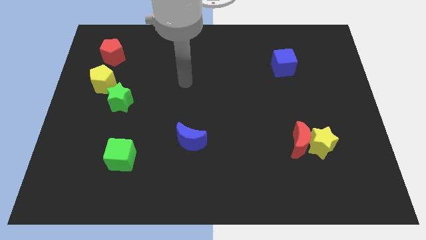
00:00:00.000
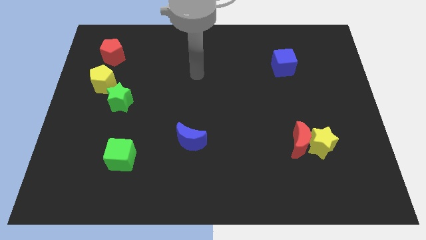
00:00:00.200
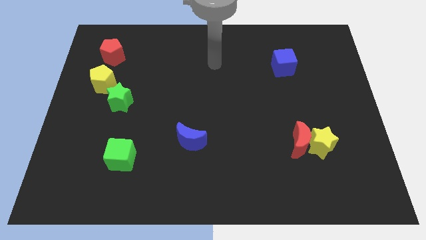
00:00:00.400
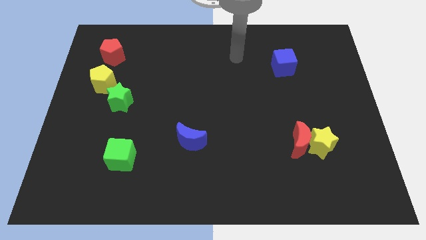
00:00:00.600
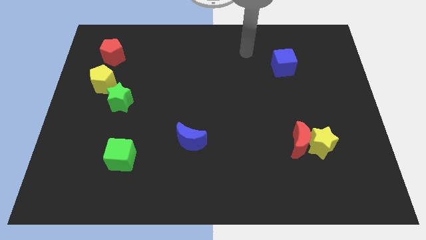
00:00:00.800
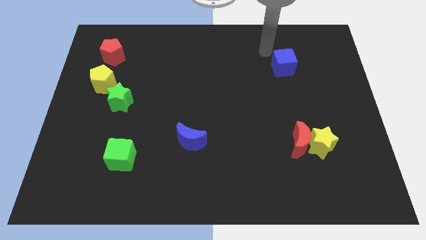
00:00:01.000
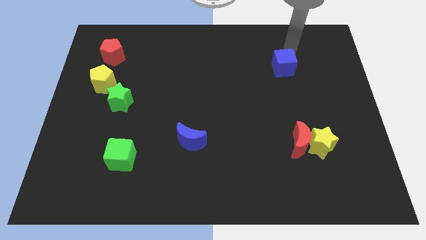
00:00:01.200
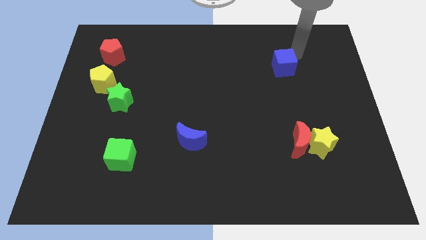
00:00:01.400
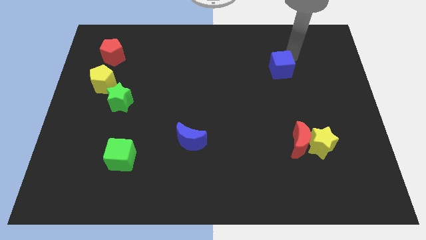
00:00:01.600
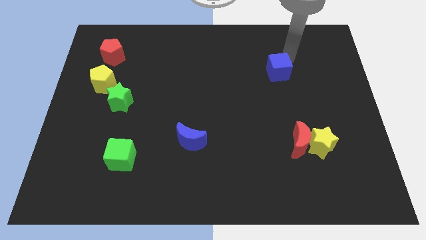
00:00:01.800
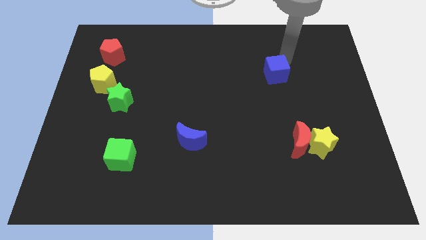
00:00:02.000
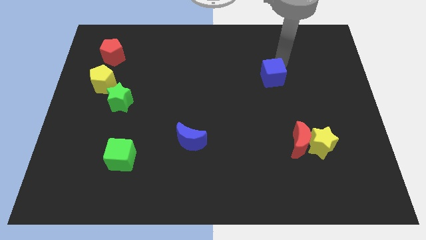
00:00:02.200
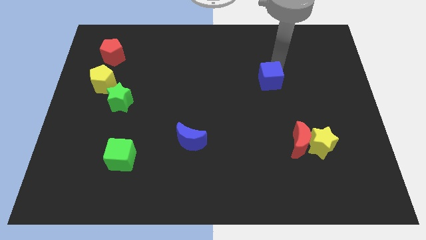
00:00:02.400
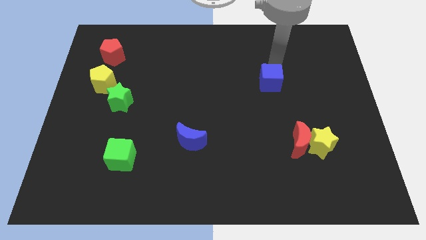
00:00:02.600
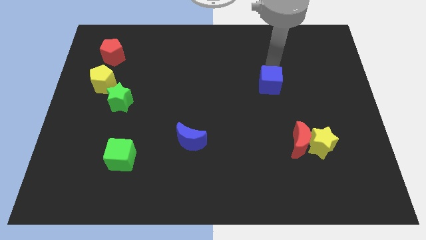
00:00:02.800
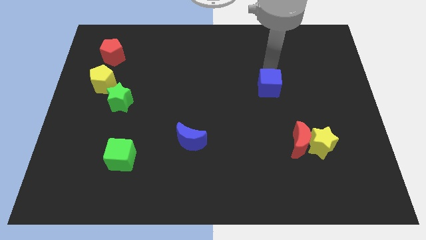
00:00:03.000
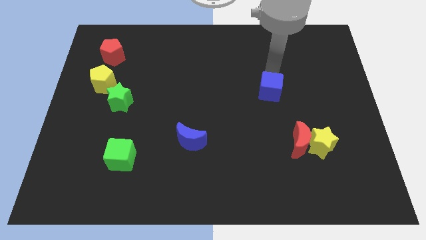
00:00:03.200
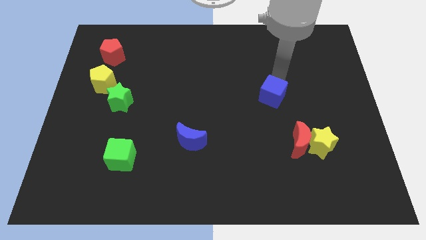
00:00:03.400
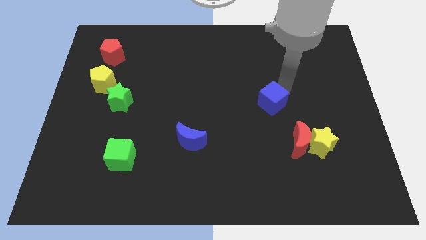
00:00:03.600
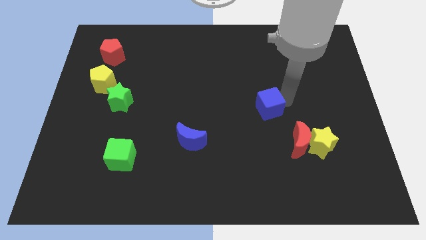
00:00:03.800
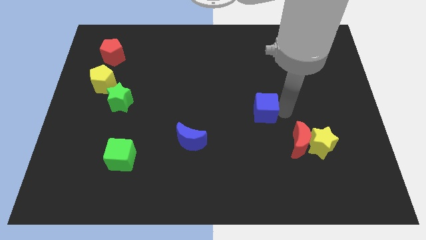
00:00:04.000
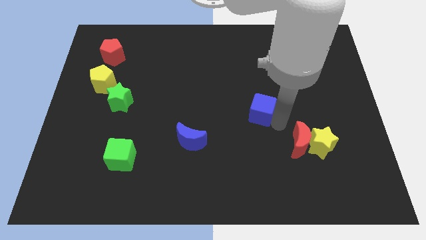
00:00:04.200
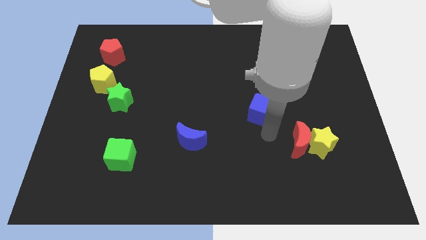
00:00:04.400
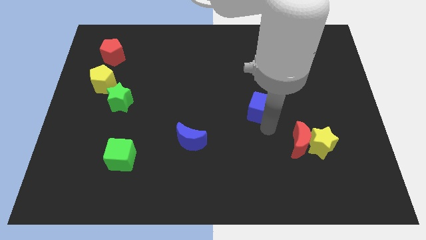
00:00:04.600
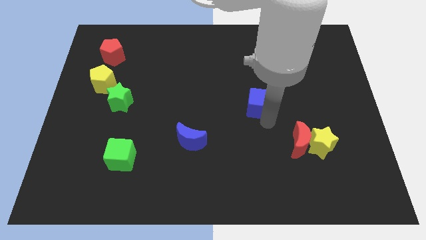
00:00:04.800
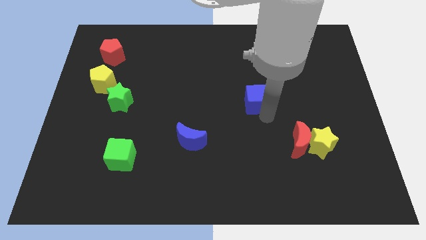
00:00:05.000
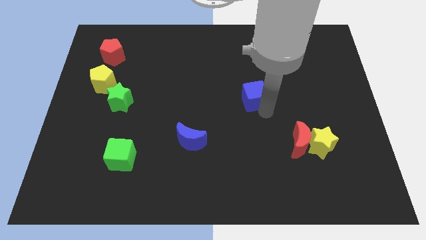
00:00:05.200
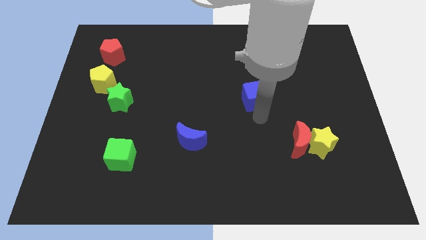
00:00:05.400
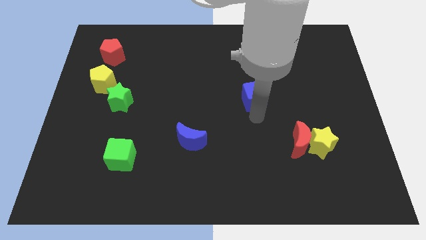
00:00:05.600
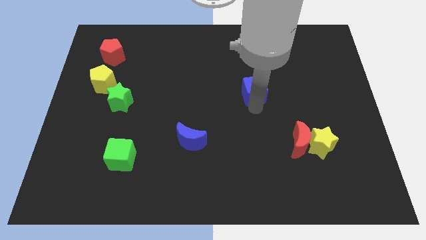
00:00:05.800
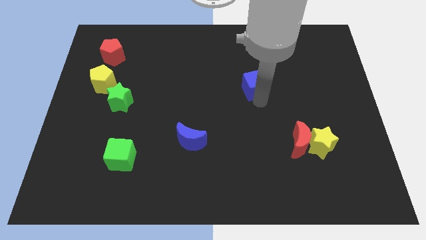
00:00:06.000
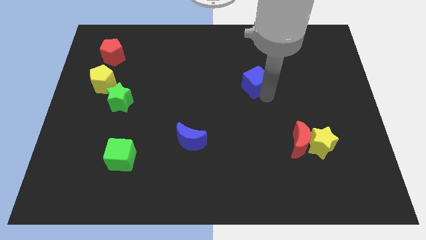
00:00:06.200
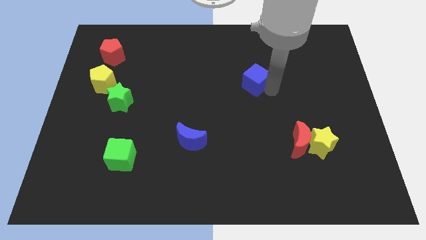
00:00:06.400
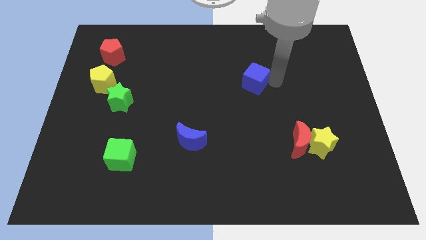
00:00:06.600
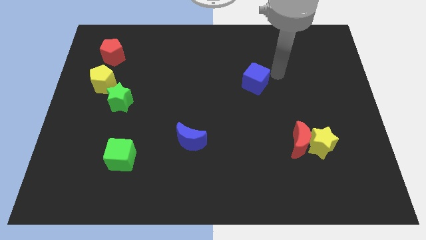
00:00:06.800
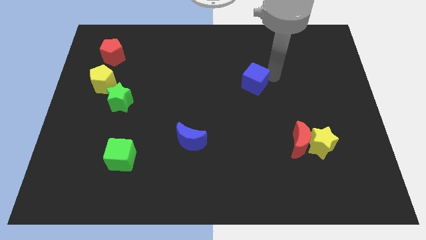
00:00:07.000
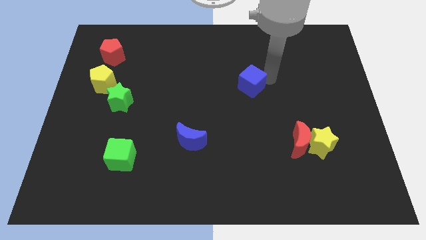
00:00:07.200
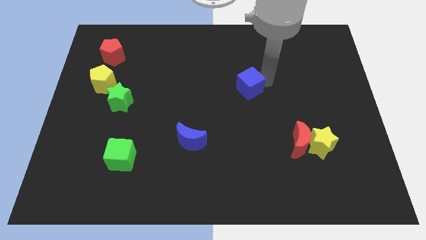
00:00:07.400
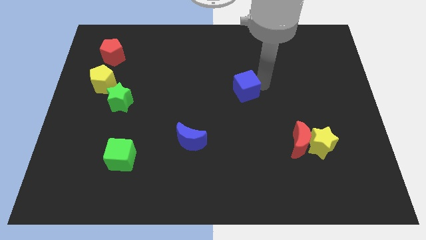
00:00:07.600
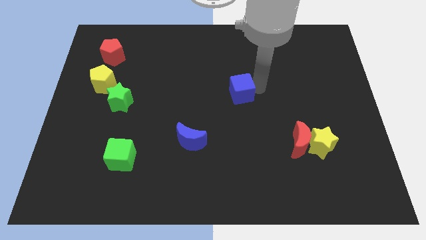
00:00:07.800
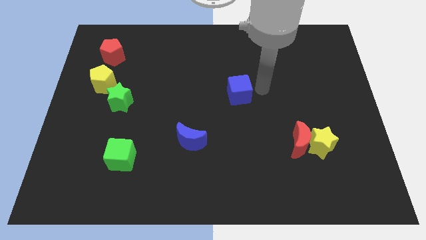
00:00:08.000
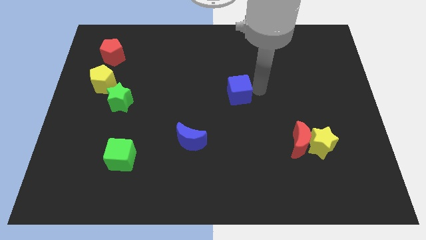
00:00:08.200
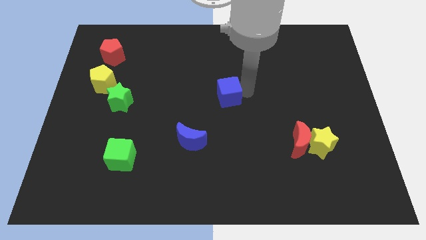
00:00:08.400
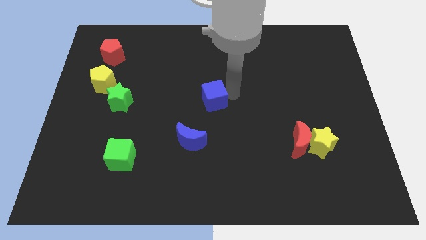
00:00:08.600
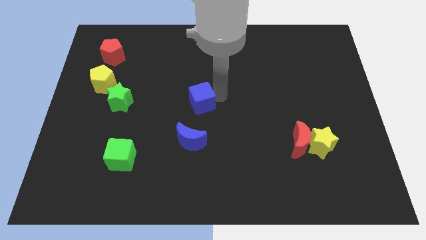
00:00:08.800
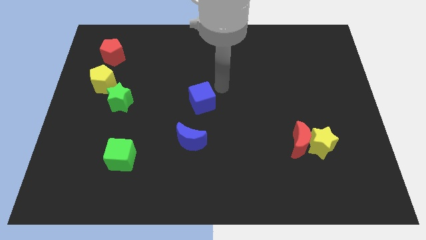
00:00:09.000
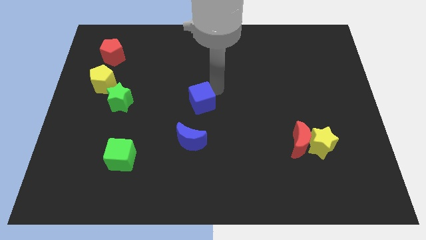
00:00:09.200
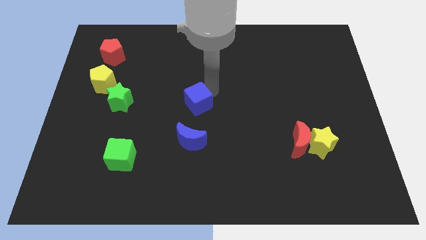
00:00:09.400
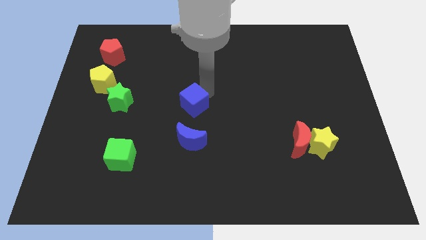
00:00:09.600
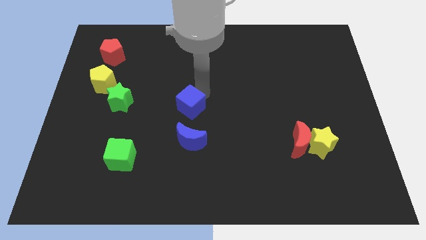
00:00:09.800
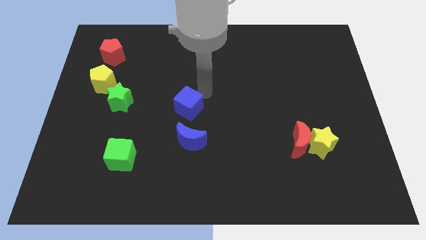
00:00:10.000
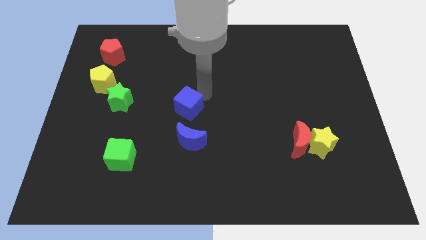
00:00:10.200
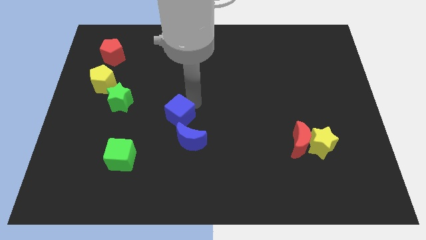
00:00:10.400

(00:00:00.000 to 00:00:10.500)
slide the blue cube diagonally up and to the left of the blue moon

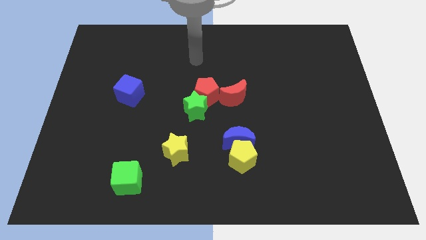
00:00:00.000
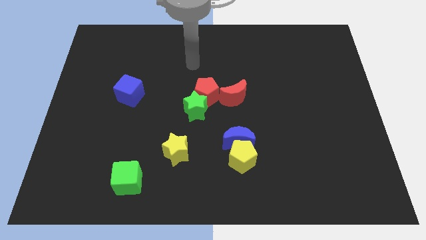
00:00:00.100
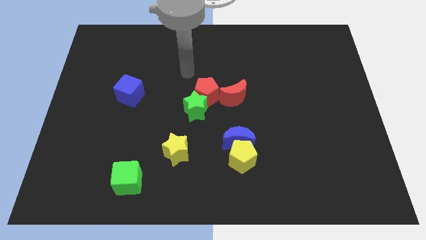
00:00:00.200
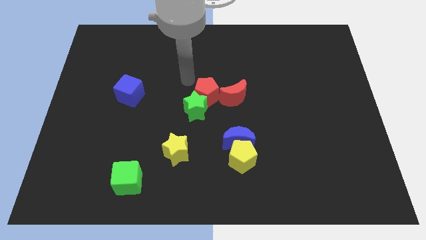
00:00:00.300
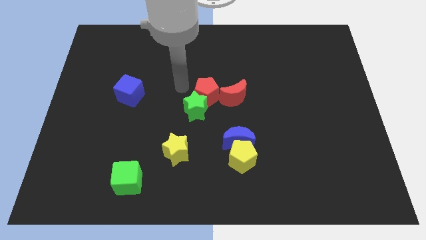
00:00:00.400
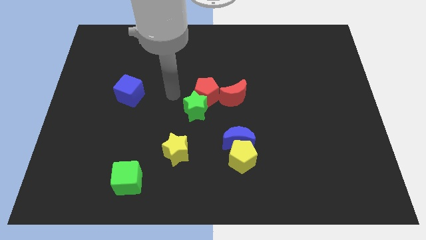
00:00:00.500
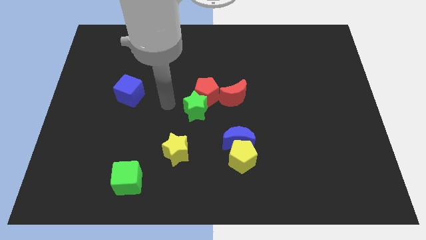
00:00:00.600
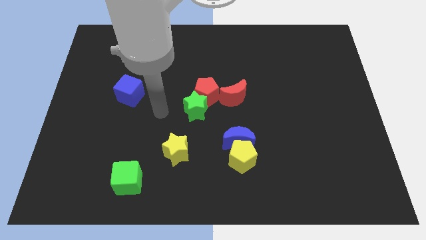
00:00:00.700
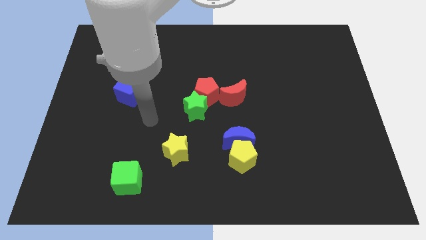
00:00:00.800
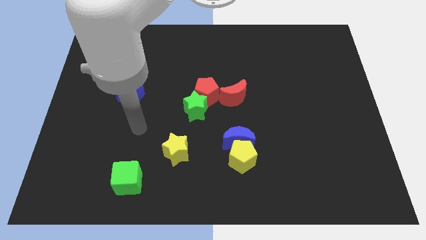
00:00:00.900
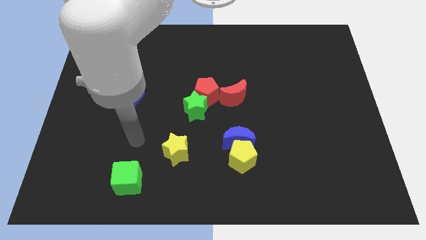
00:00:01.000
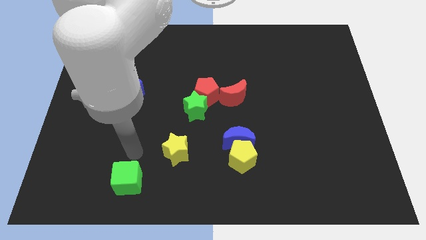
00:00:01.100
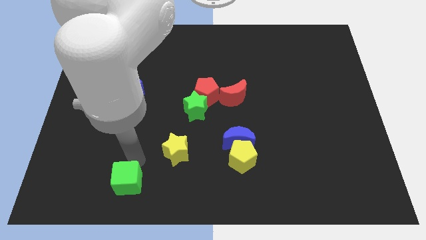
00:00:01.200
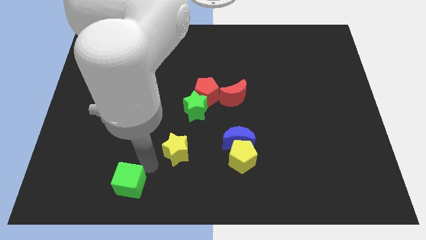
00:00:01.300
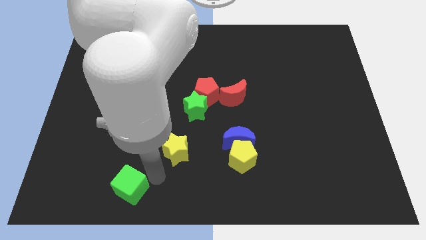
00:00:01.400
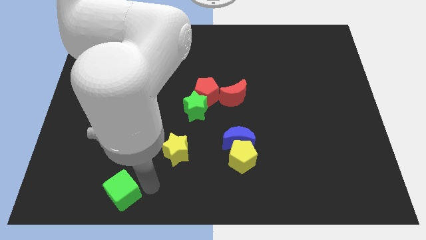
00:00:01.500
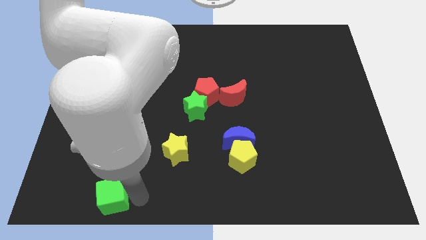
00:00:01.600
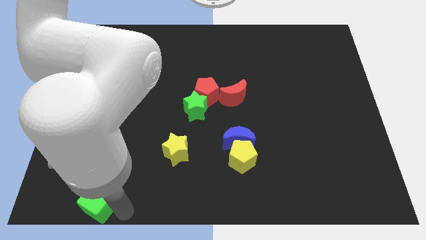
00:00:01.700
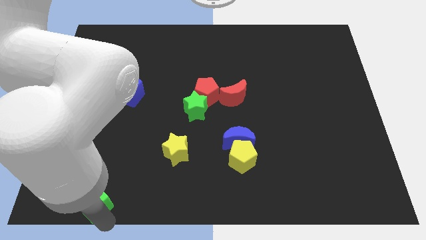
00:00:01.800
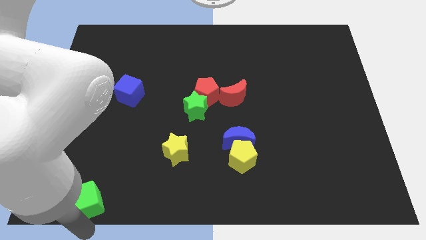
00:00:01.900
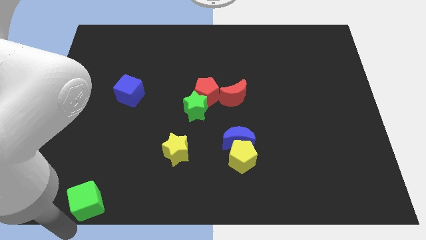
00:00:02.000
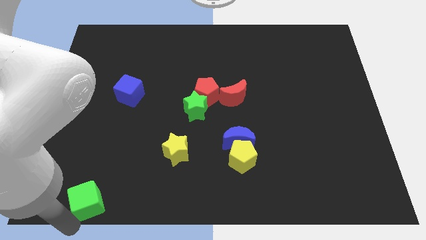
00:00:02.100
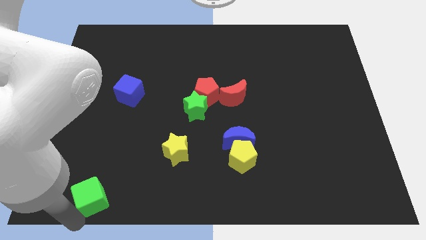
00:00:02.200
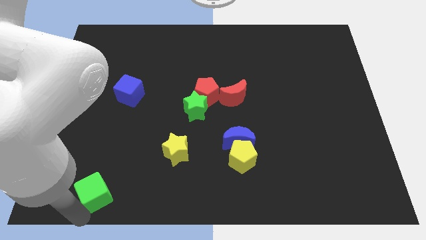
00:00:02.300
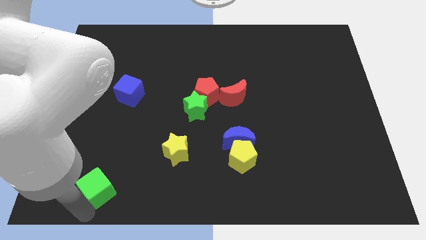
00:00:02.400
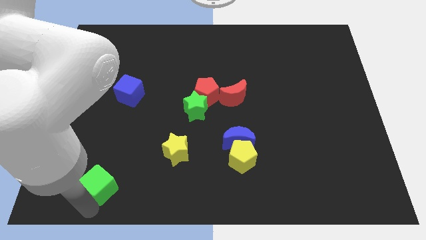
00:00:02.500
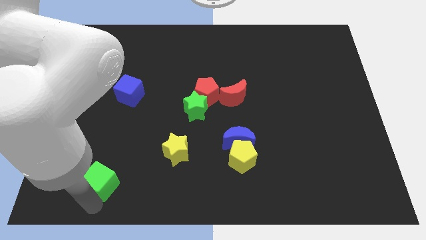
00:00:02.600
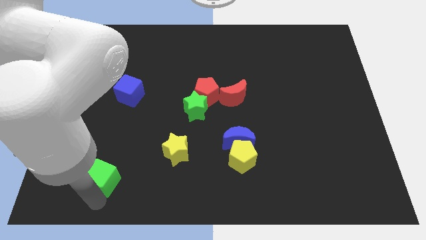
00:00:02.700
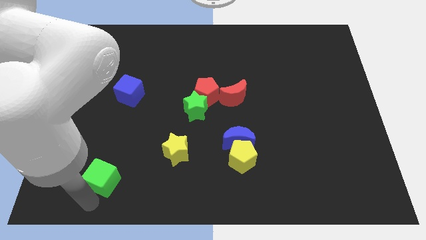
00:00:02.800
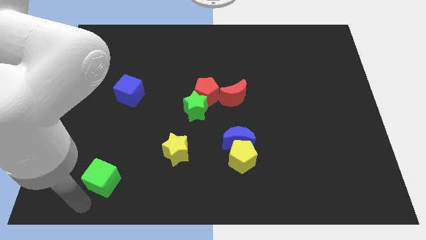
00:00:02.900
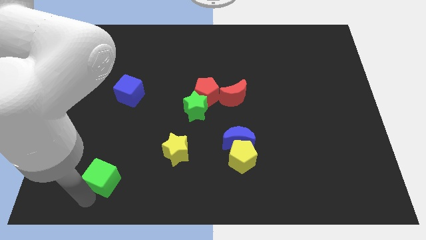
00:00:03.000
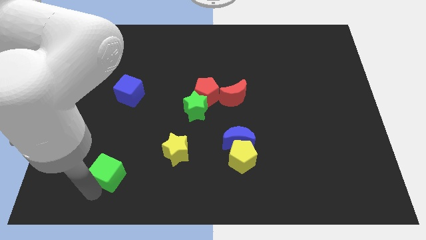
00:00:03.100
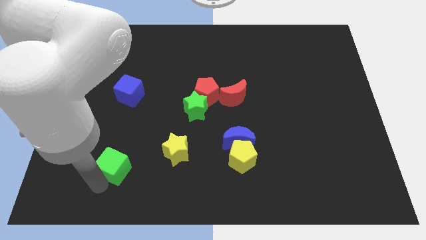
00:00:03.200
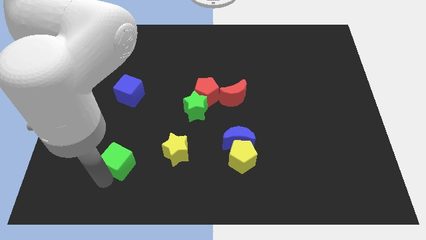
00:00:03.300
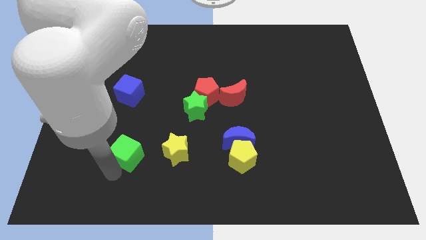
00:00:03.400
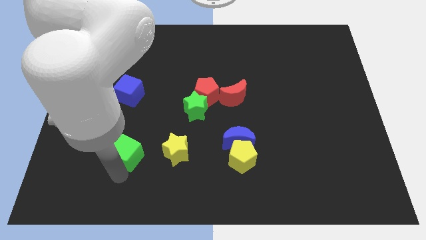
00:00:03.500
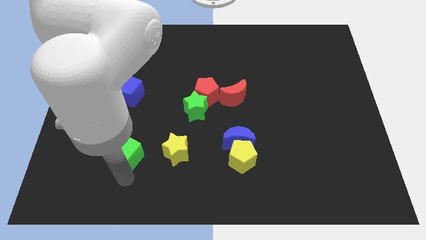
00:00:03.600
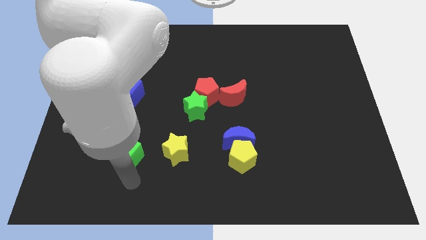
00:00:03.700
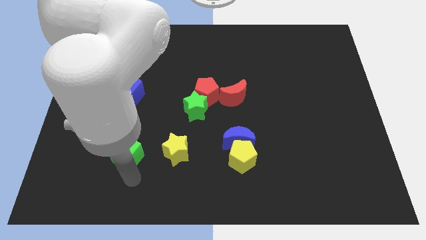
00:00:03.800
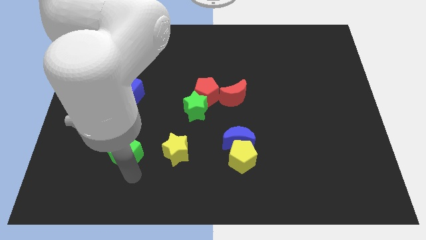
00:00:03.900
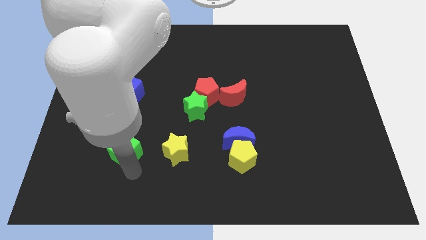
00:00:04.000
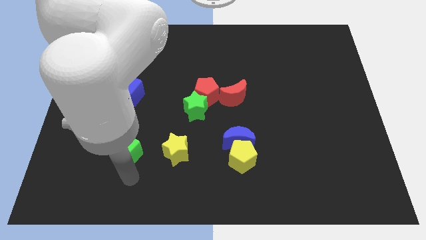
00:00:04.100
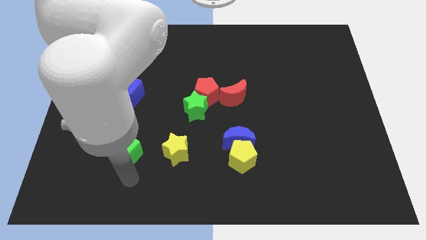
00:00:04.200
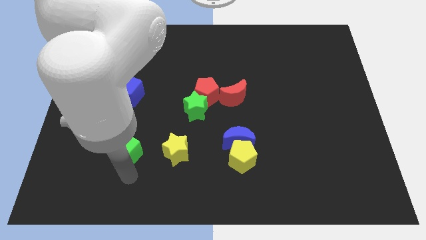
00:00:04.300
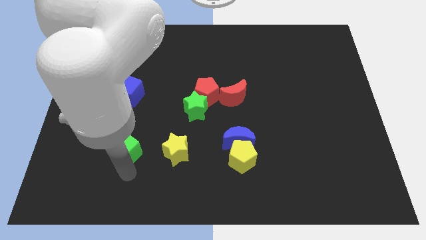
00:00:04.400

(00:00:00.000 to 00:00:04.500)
move the green cube to the bottom side of the blue cube
